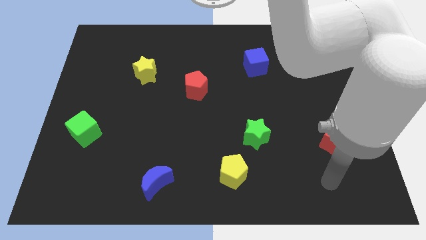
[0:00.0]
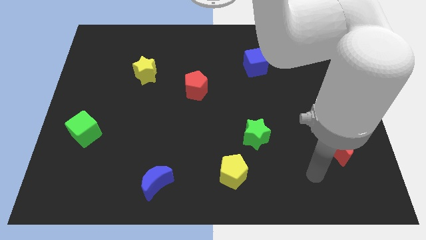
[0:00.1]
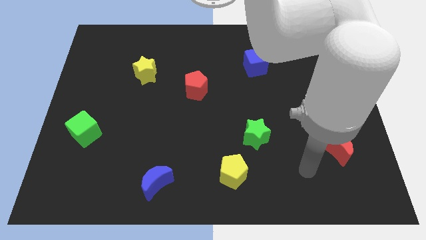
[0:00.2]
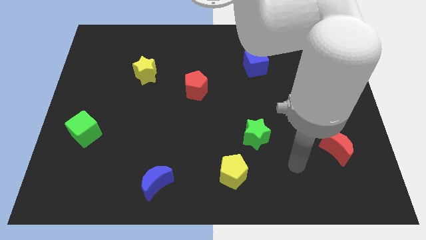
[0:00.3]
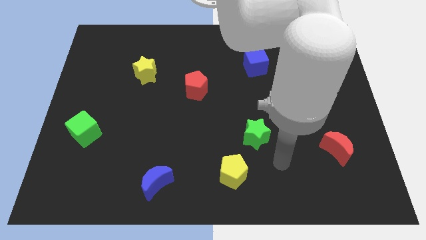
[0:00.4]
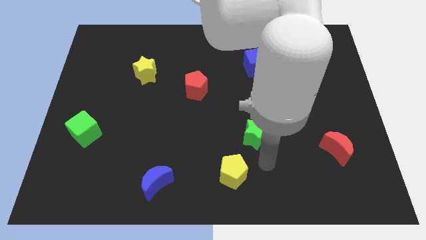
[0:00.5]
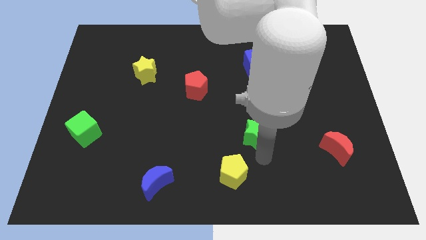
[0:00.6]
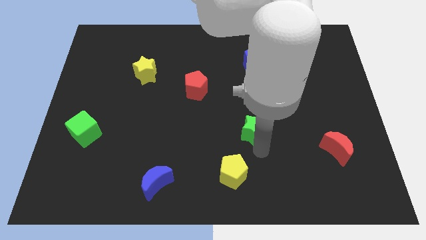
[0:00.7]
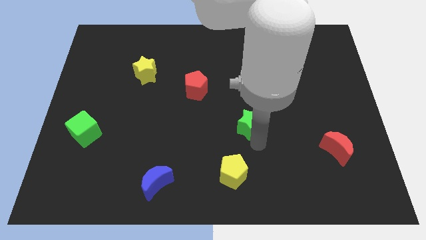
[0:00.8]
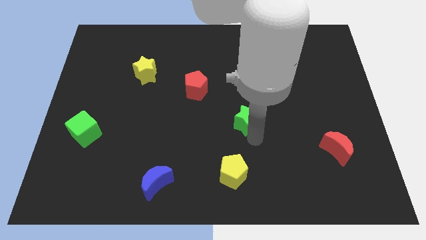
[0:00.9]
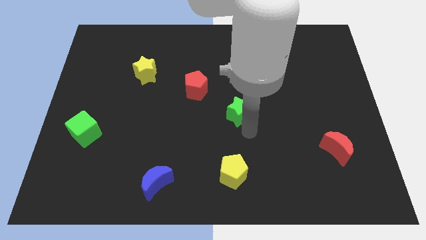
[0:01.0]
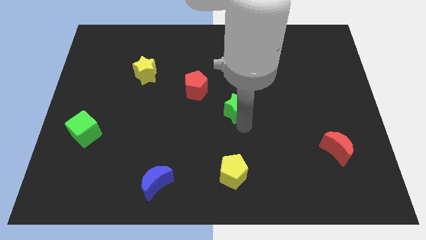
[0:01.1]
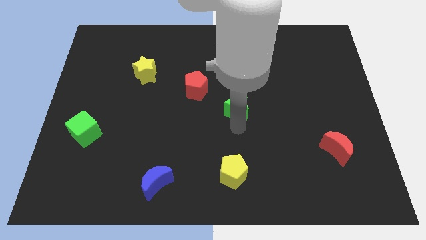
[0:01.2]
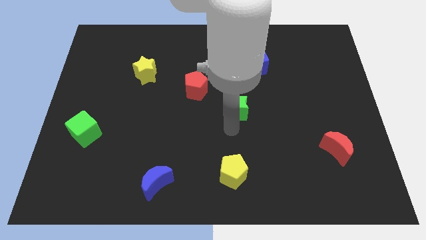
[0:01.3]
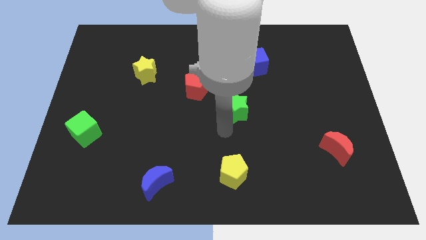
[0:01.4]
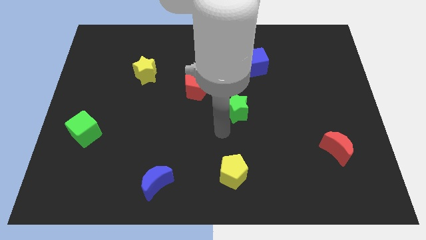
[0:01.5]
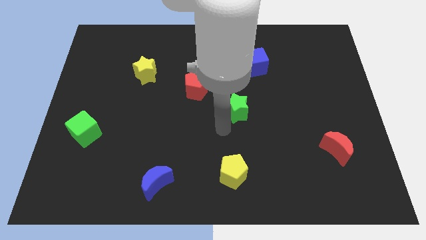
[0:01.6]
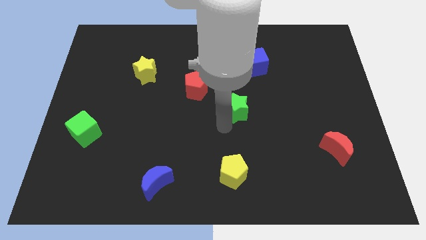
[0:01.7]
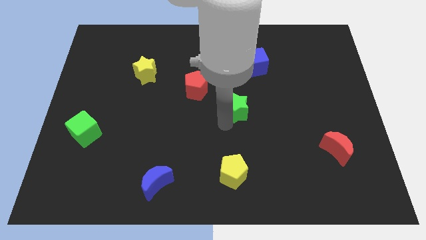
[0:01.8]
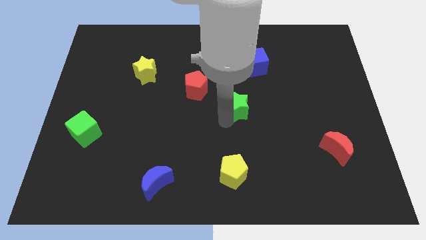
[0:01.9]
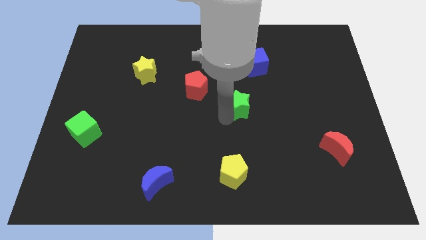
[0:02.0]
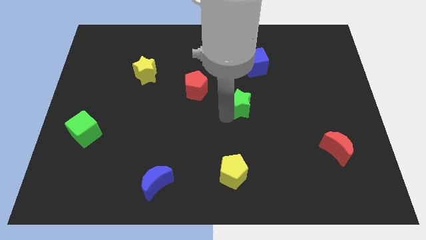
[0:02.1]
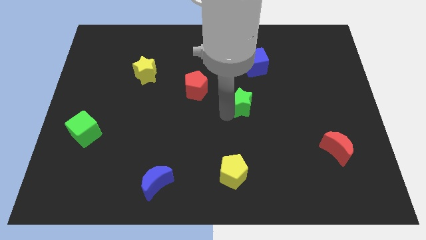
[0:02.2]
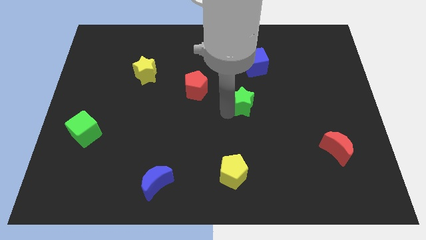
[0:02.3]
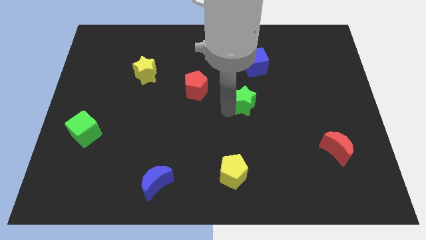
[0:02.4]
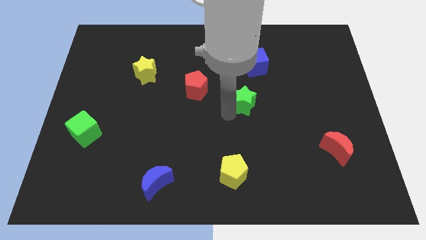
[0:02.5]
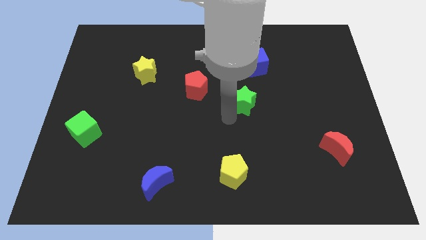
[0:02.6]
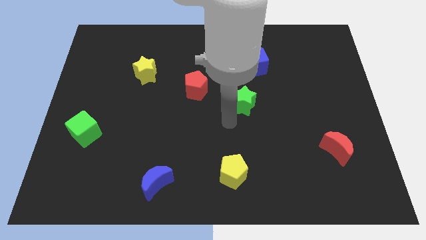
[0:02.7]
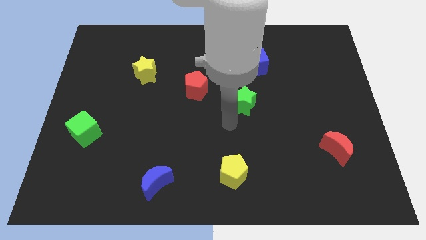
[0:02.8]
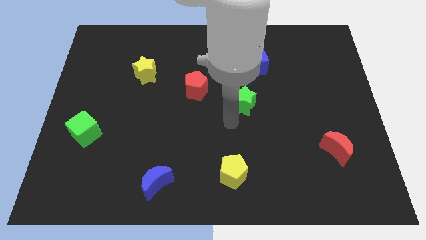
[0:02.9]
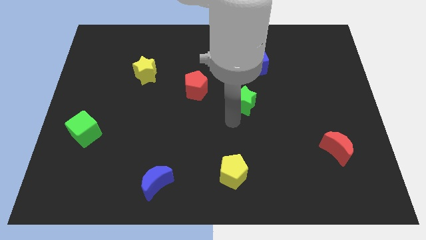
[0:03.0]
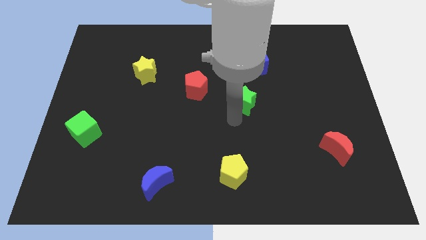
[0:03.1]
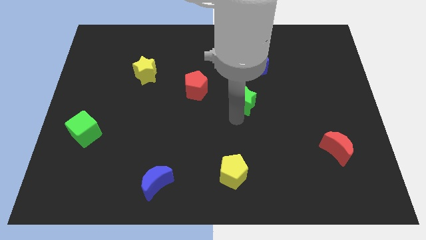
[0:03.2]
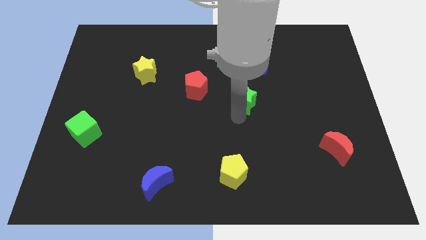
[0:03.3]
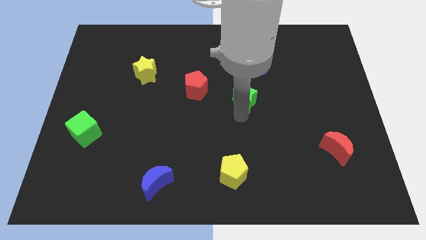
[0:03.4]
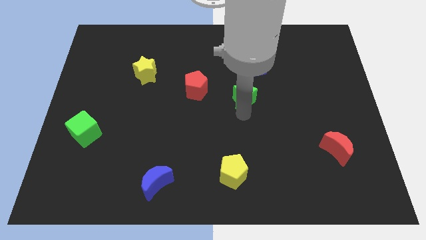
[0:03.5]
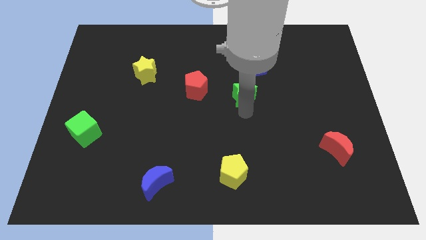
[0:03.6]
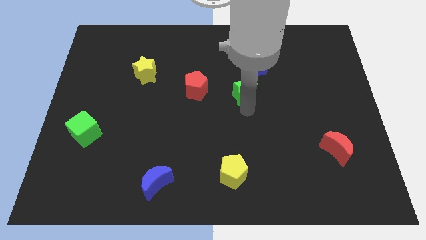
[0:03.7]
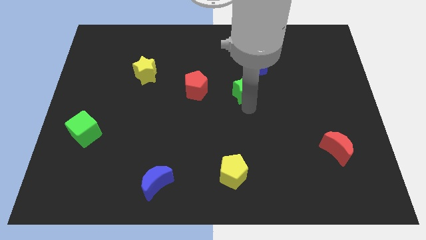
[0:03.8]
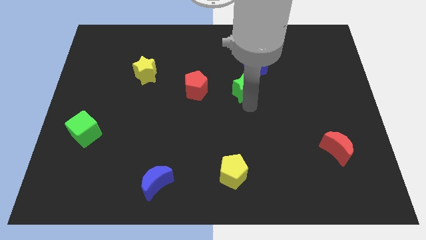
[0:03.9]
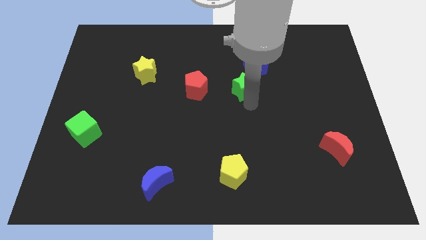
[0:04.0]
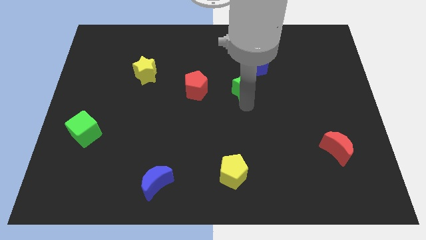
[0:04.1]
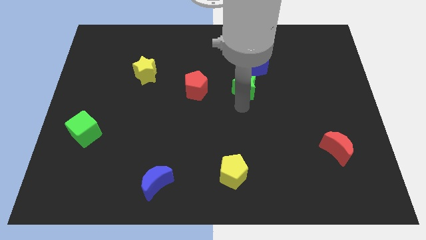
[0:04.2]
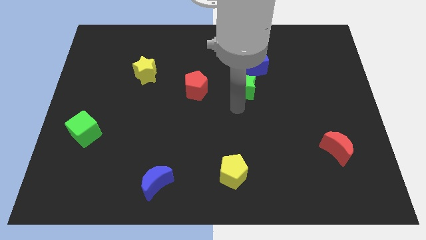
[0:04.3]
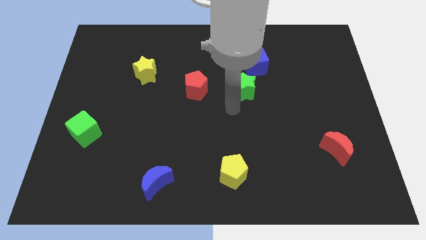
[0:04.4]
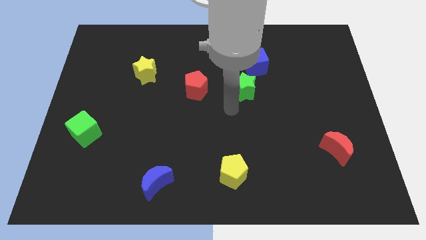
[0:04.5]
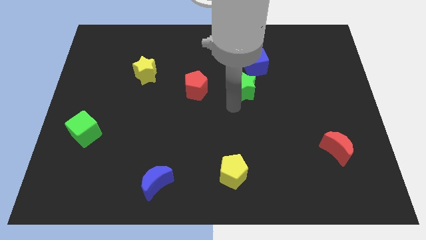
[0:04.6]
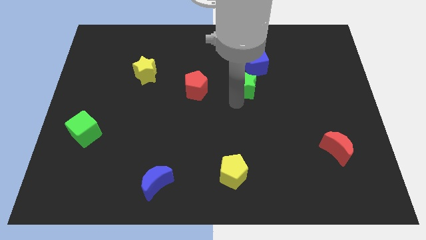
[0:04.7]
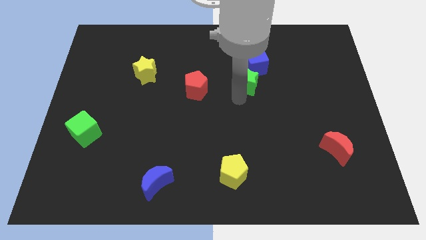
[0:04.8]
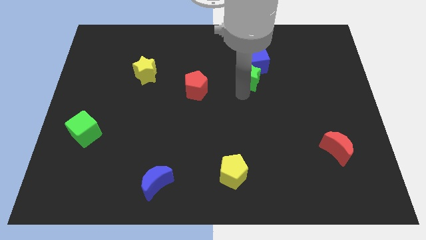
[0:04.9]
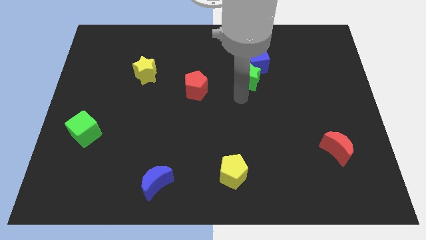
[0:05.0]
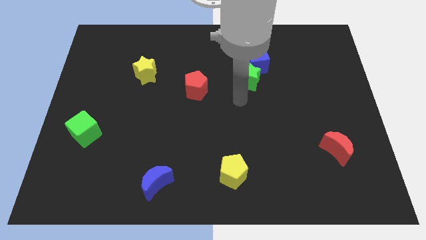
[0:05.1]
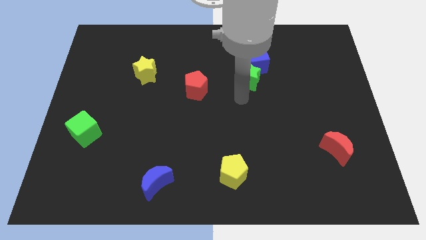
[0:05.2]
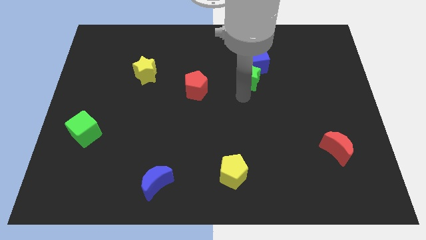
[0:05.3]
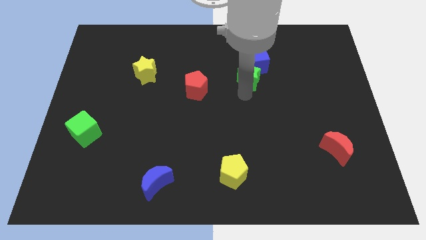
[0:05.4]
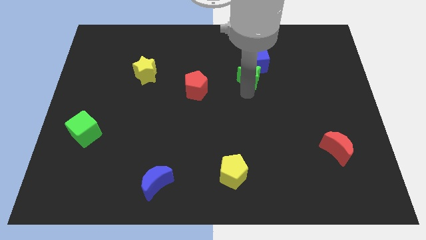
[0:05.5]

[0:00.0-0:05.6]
put the green star to the blue cube

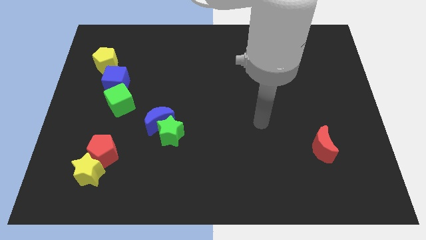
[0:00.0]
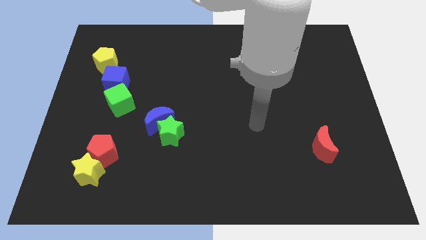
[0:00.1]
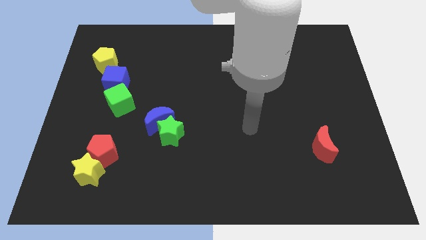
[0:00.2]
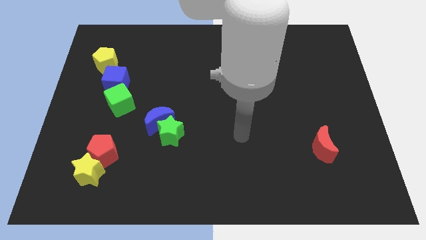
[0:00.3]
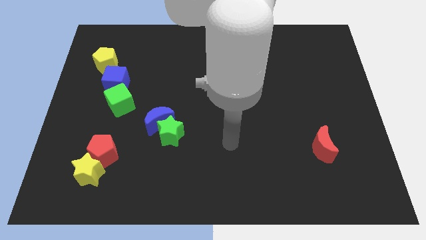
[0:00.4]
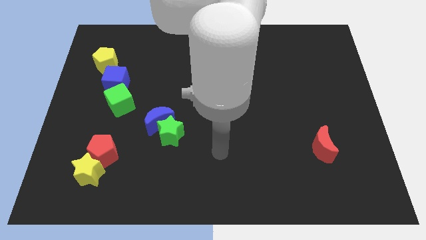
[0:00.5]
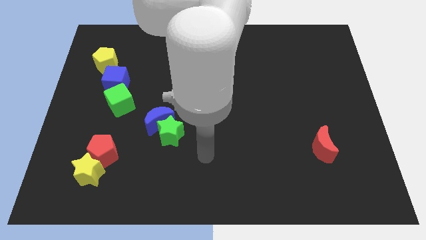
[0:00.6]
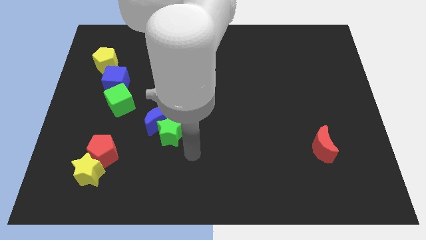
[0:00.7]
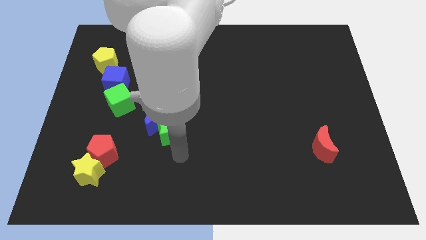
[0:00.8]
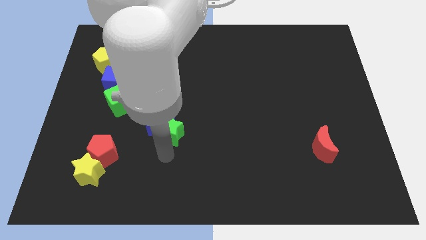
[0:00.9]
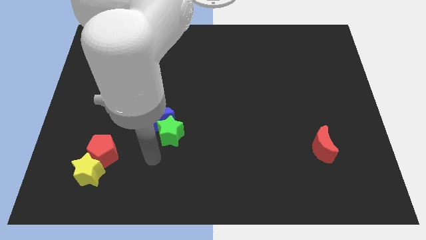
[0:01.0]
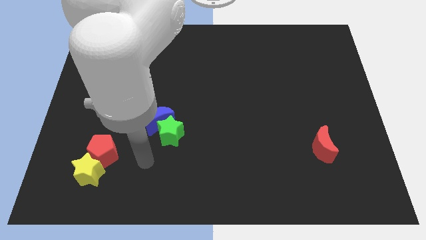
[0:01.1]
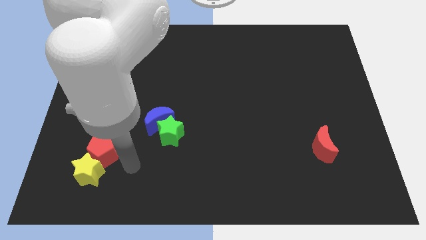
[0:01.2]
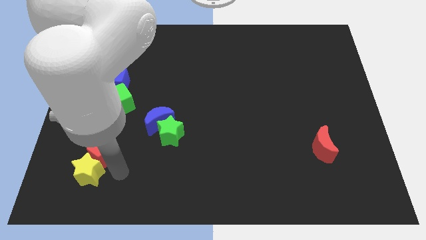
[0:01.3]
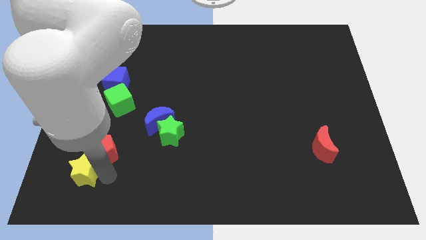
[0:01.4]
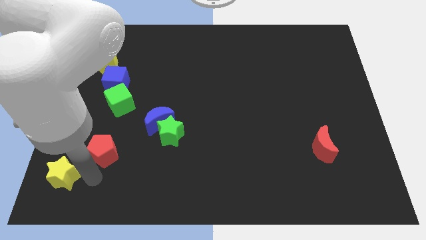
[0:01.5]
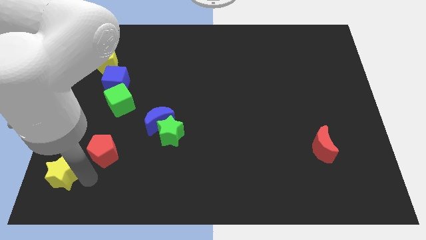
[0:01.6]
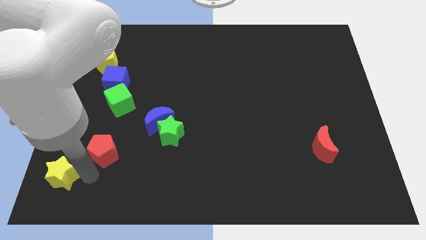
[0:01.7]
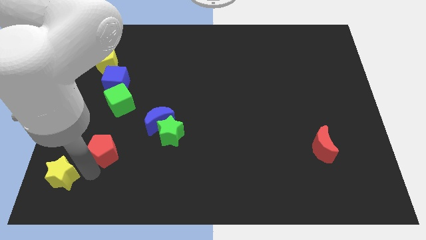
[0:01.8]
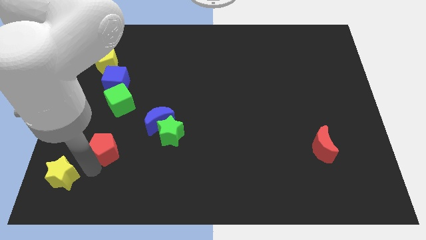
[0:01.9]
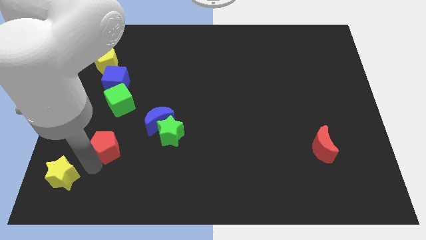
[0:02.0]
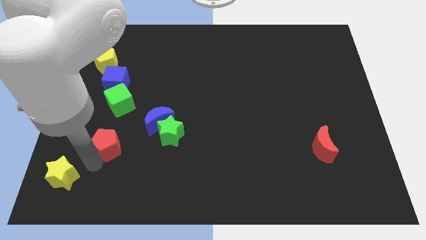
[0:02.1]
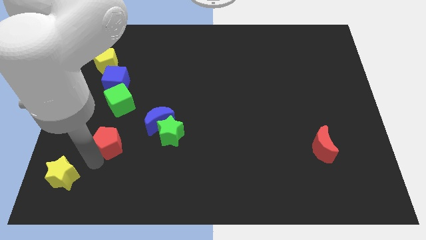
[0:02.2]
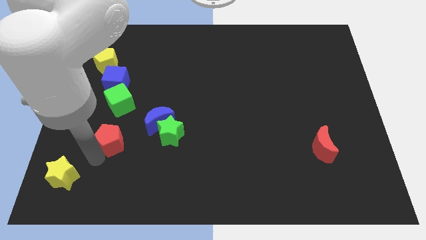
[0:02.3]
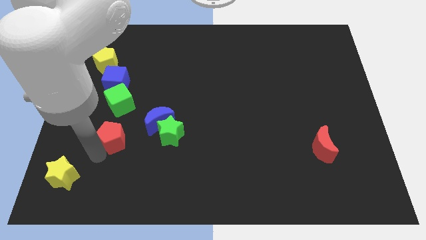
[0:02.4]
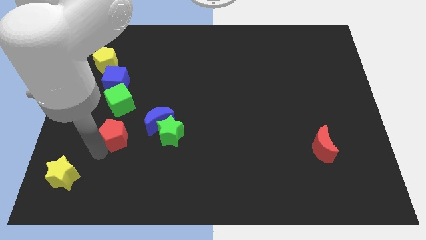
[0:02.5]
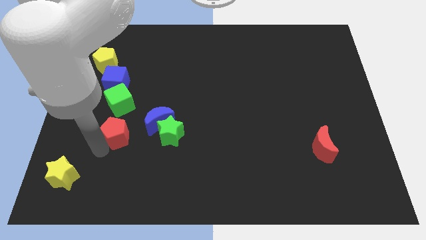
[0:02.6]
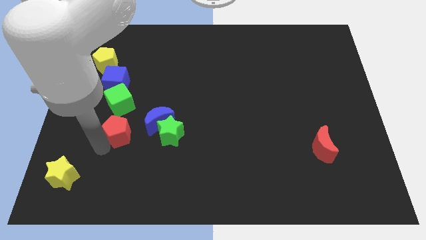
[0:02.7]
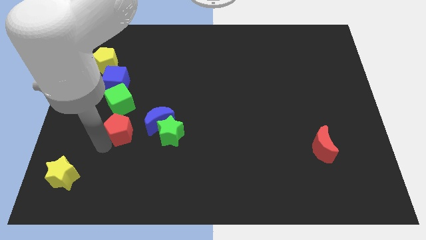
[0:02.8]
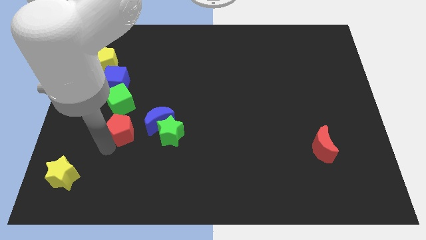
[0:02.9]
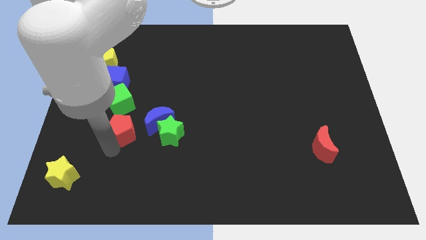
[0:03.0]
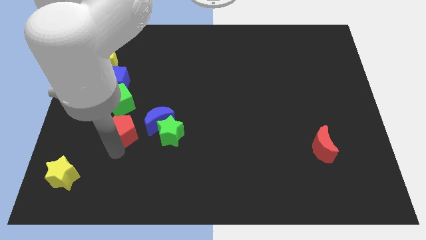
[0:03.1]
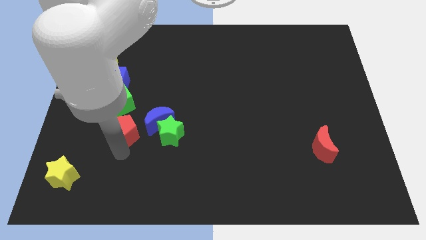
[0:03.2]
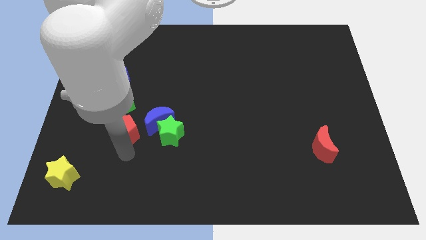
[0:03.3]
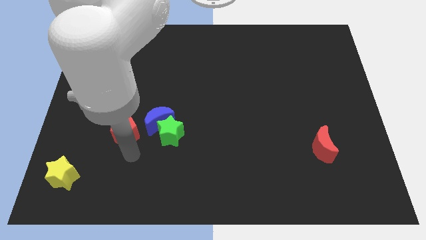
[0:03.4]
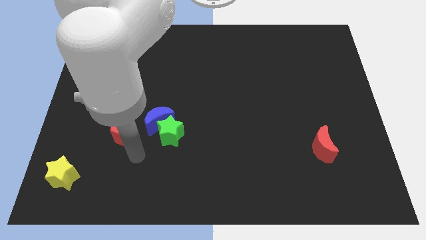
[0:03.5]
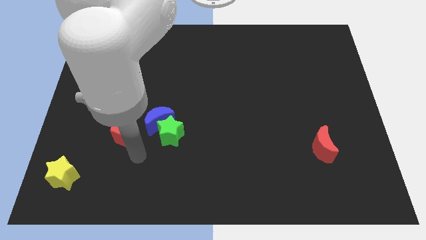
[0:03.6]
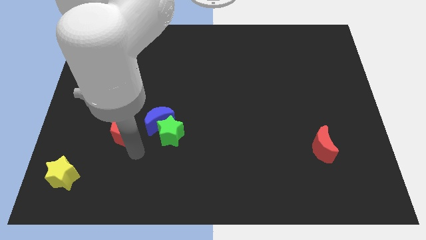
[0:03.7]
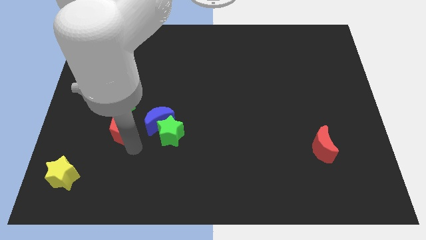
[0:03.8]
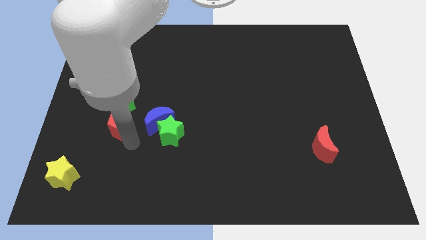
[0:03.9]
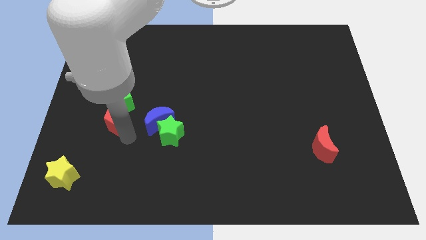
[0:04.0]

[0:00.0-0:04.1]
move the red pentagon close to the green cube
